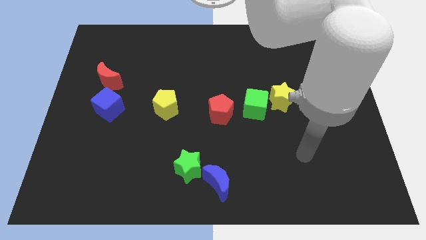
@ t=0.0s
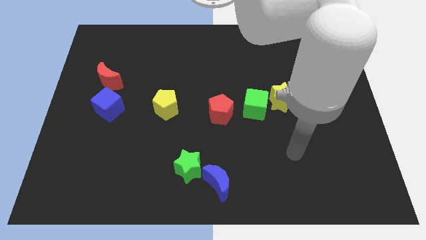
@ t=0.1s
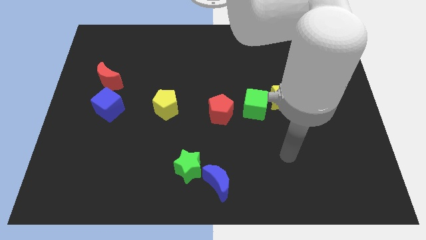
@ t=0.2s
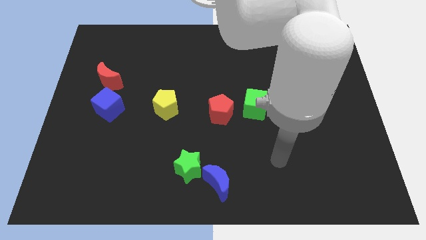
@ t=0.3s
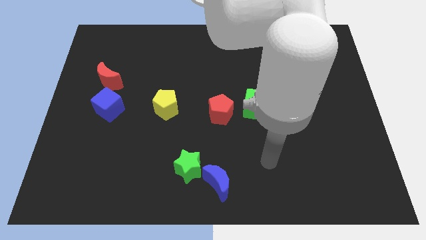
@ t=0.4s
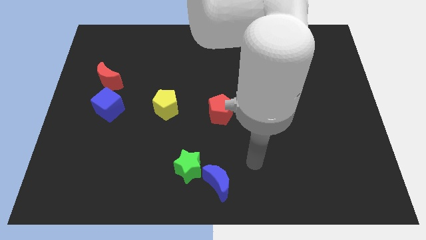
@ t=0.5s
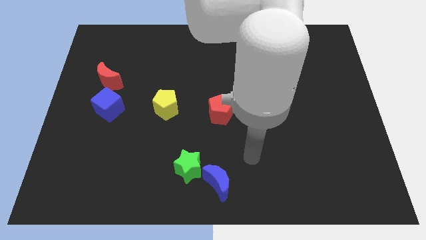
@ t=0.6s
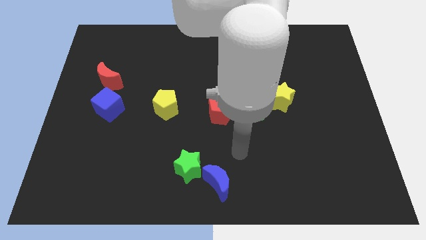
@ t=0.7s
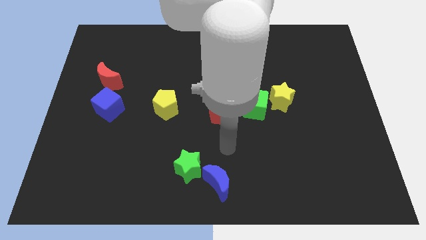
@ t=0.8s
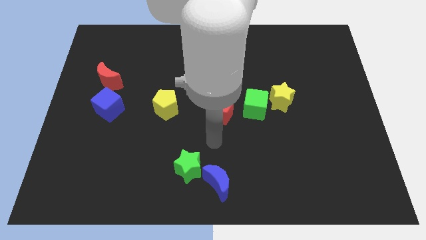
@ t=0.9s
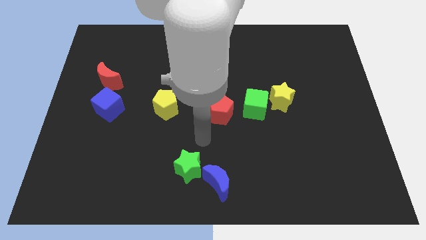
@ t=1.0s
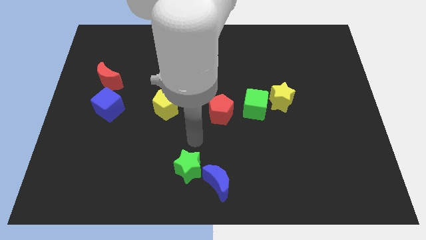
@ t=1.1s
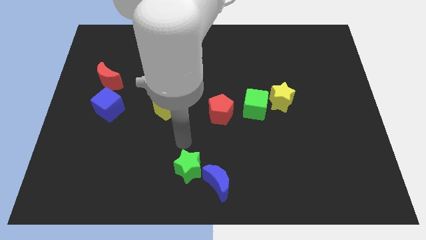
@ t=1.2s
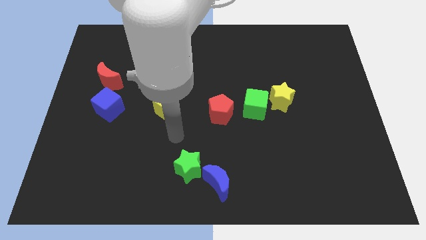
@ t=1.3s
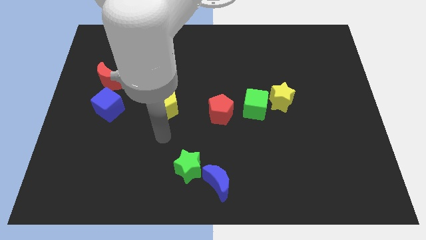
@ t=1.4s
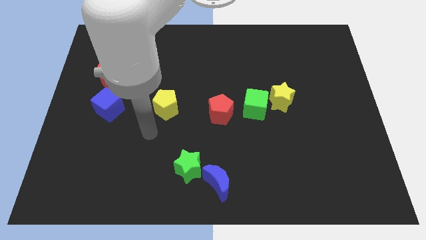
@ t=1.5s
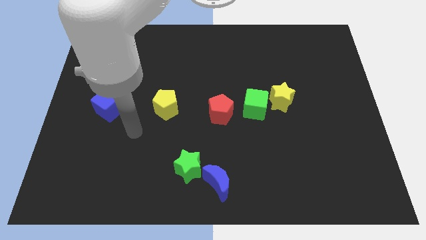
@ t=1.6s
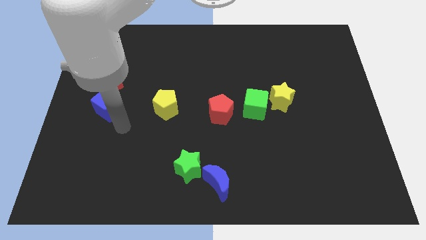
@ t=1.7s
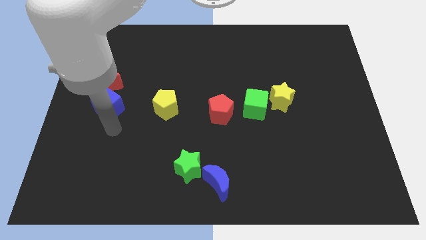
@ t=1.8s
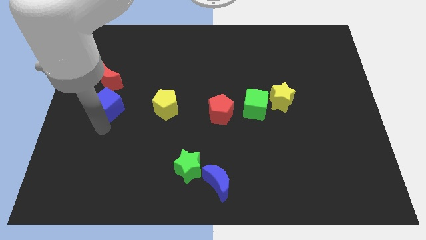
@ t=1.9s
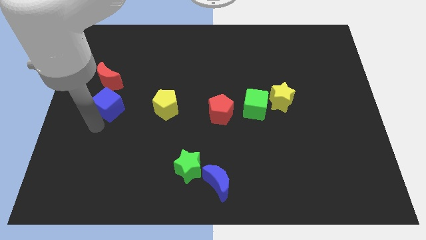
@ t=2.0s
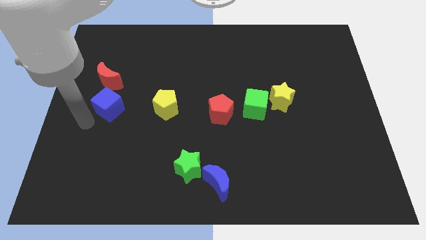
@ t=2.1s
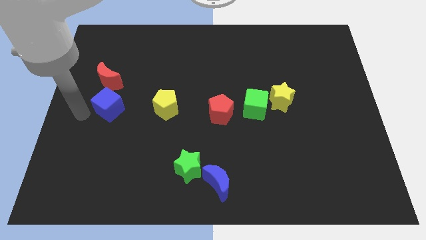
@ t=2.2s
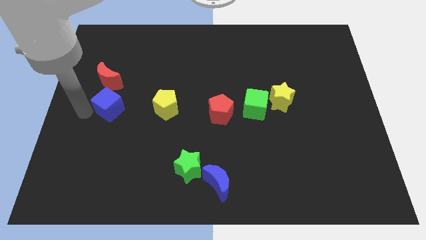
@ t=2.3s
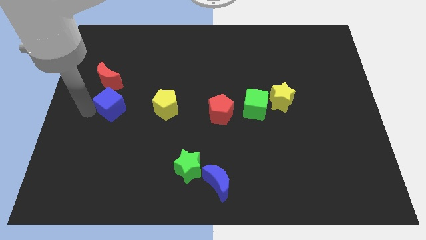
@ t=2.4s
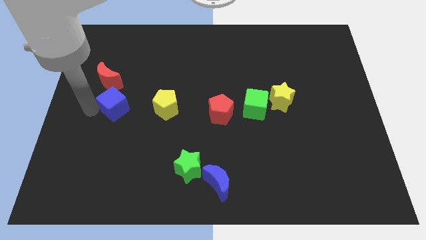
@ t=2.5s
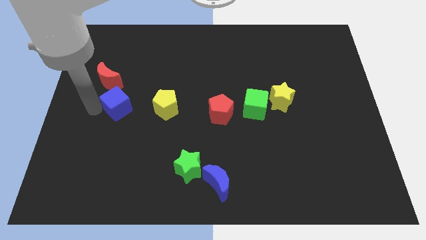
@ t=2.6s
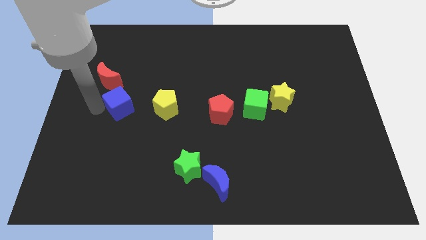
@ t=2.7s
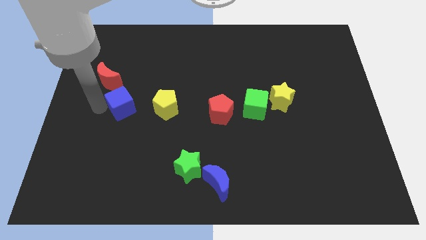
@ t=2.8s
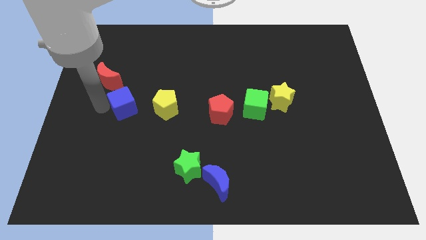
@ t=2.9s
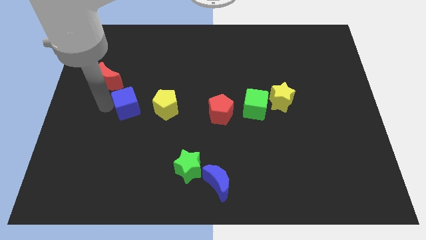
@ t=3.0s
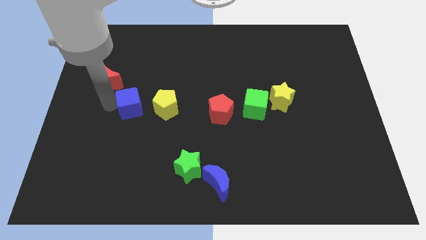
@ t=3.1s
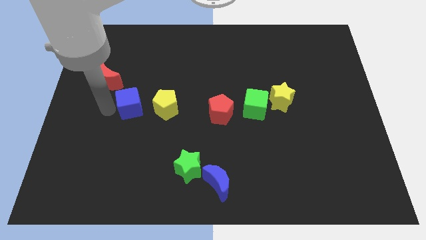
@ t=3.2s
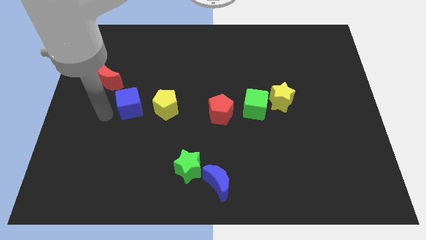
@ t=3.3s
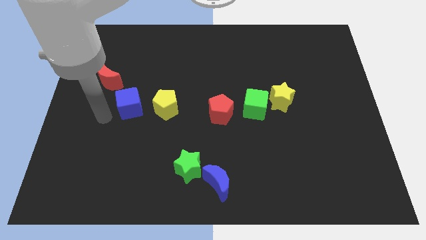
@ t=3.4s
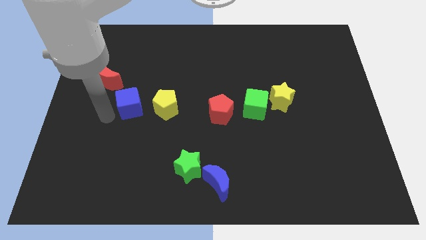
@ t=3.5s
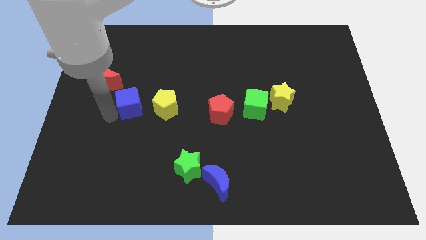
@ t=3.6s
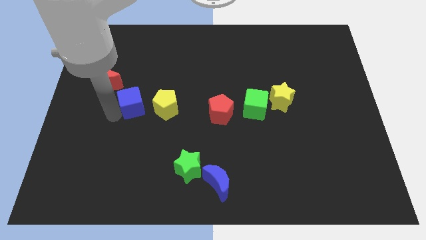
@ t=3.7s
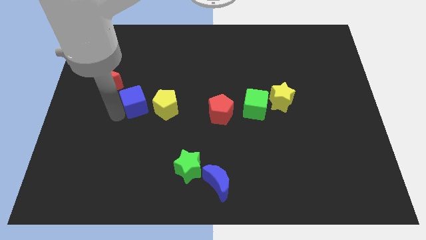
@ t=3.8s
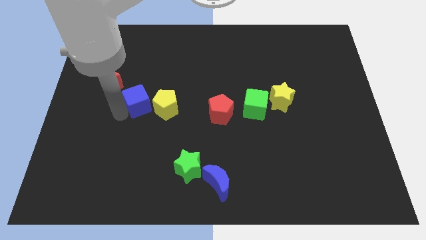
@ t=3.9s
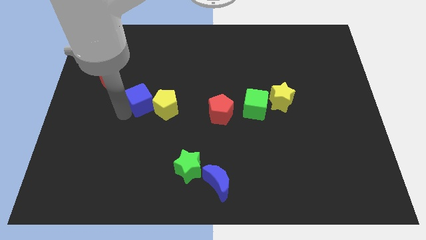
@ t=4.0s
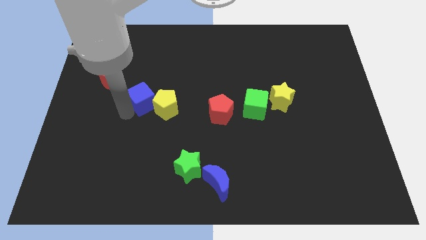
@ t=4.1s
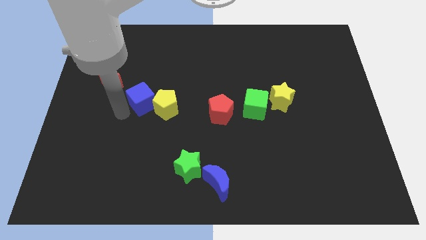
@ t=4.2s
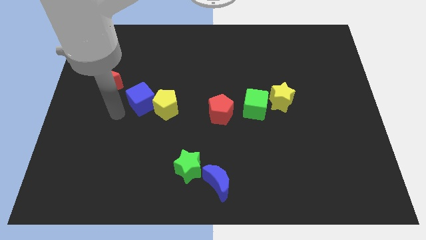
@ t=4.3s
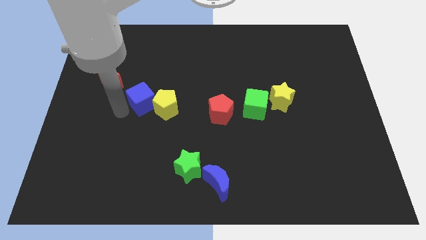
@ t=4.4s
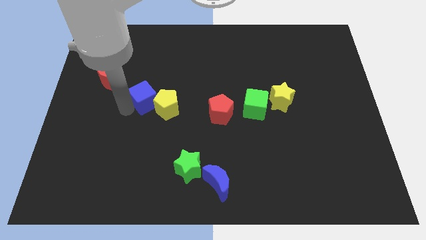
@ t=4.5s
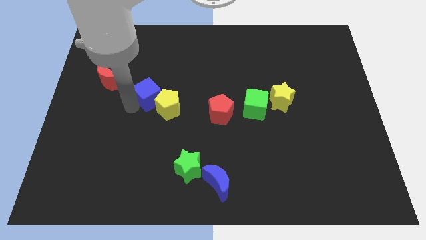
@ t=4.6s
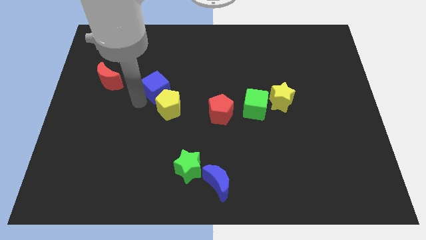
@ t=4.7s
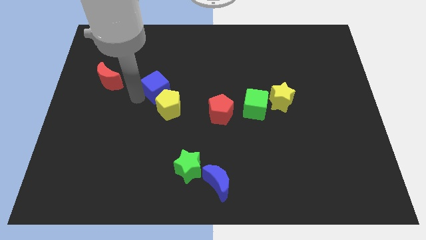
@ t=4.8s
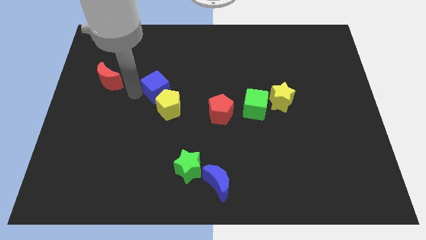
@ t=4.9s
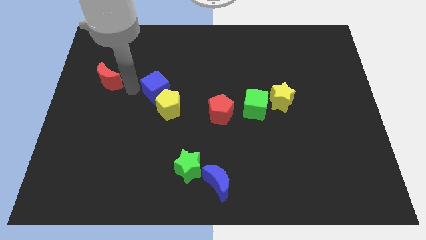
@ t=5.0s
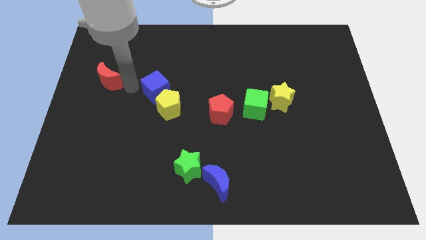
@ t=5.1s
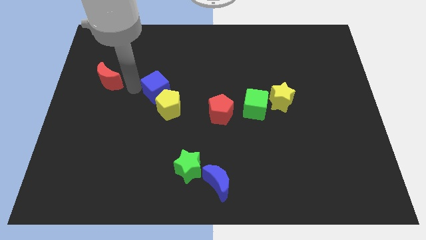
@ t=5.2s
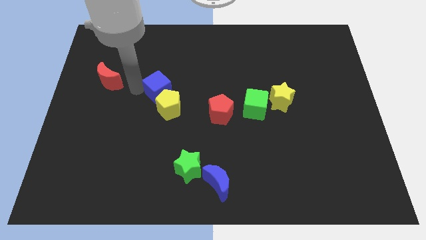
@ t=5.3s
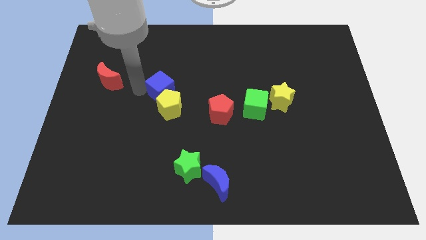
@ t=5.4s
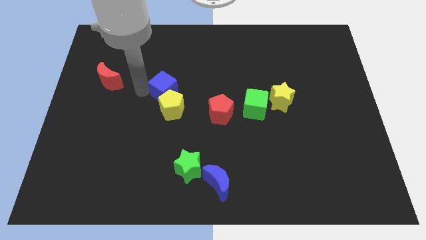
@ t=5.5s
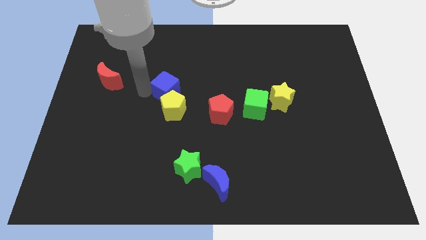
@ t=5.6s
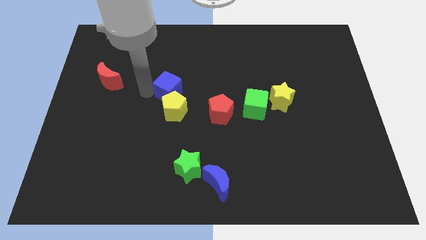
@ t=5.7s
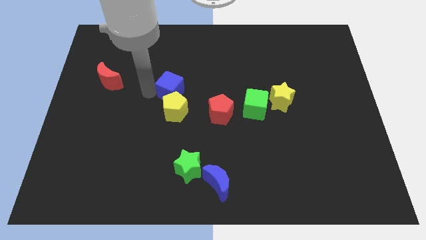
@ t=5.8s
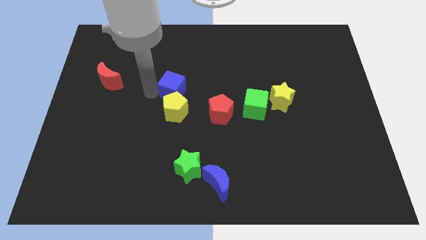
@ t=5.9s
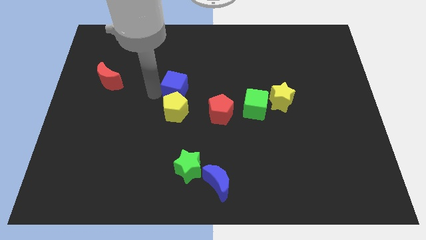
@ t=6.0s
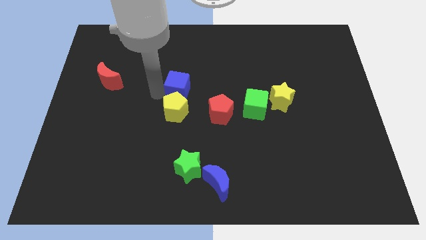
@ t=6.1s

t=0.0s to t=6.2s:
move the blue cube to the top left side of the red pentagon

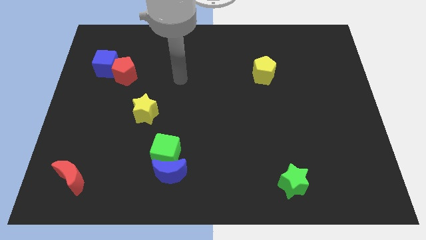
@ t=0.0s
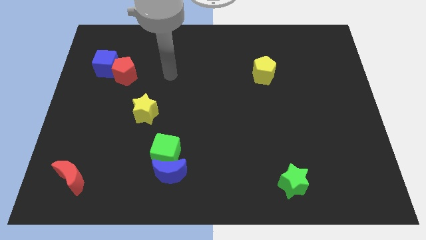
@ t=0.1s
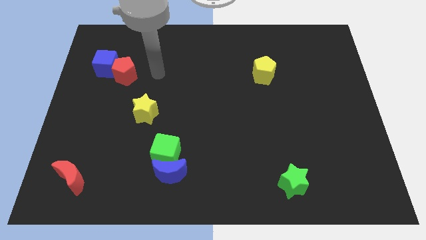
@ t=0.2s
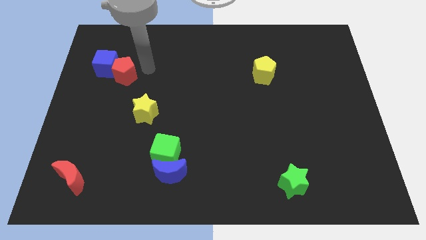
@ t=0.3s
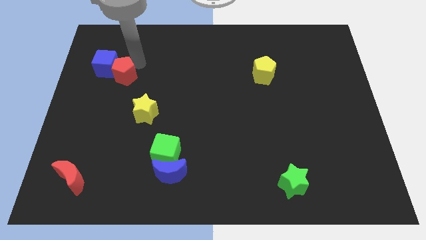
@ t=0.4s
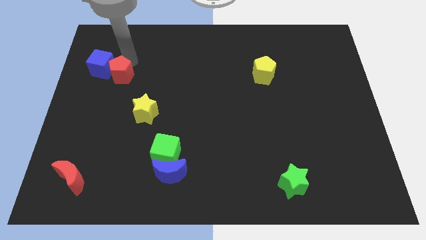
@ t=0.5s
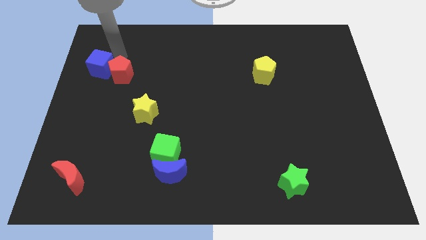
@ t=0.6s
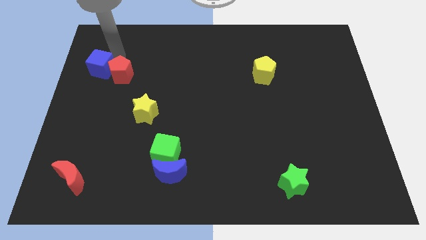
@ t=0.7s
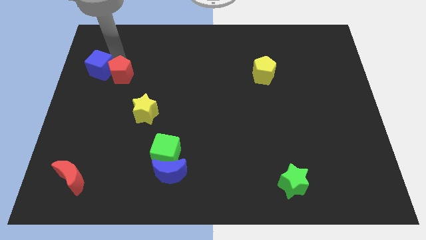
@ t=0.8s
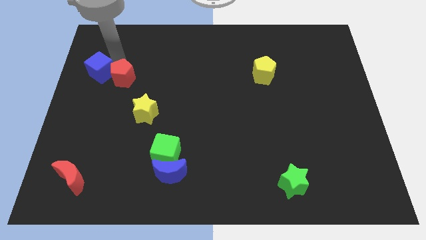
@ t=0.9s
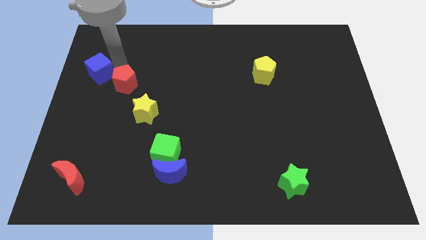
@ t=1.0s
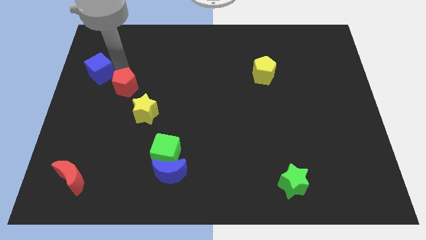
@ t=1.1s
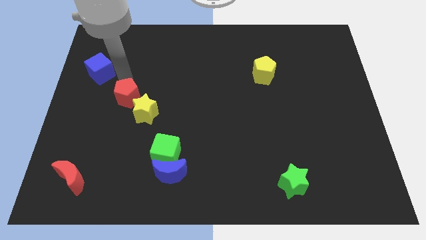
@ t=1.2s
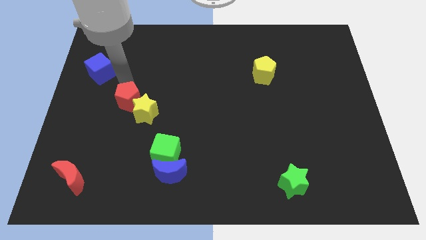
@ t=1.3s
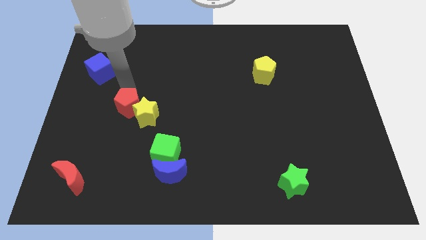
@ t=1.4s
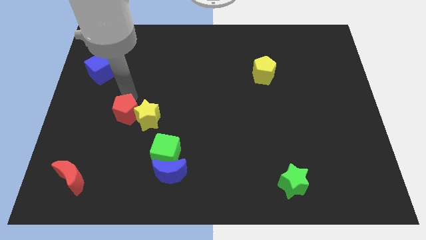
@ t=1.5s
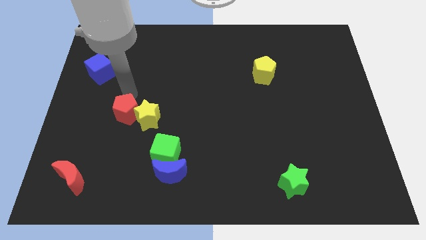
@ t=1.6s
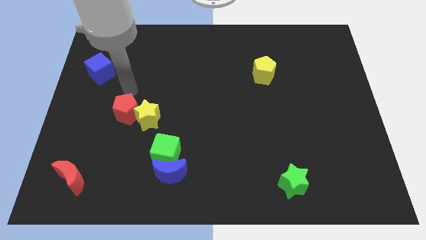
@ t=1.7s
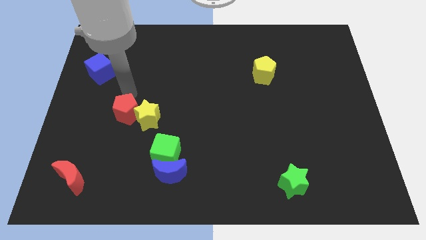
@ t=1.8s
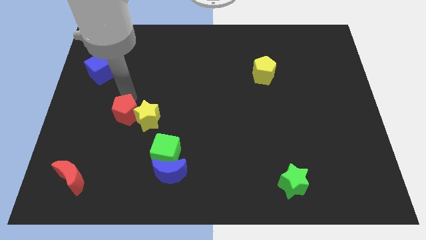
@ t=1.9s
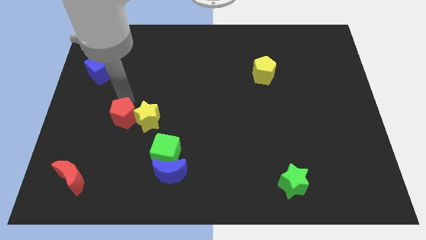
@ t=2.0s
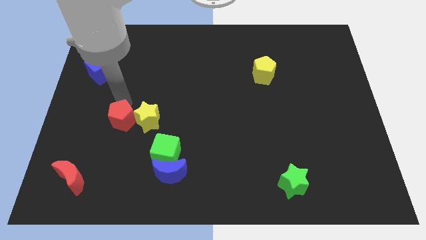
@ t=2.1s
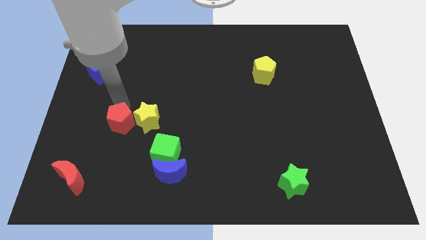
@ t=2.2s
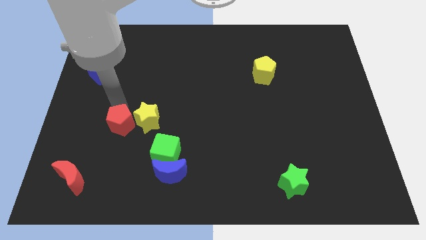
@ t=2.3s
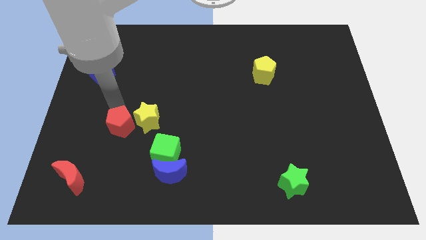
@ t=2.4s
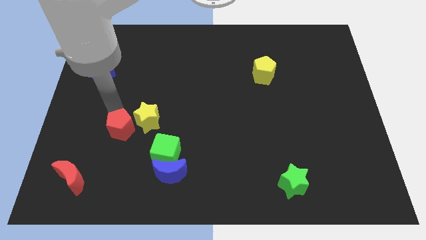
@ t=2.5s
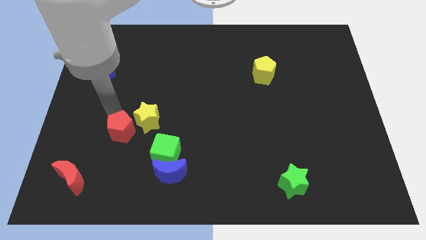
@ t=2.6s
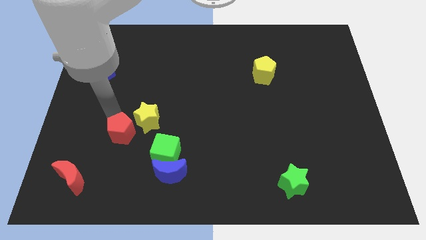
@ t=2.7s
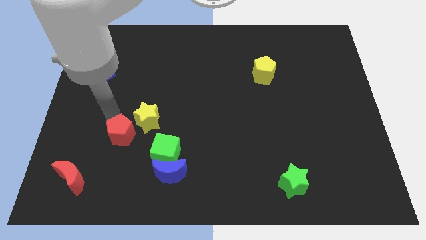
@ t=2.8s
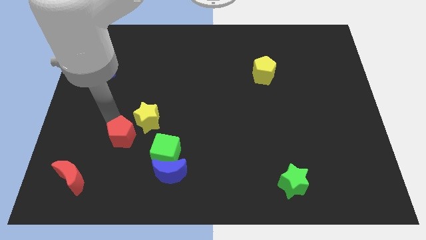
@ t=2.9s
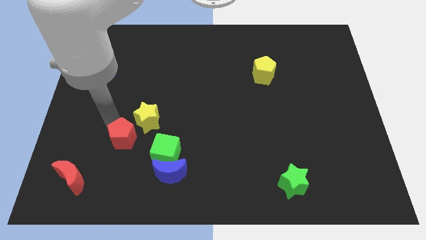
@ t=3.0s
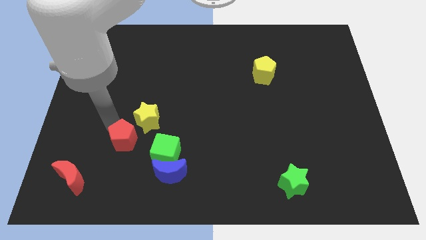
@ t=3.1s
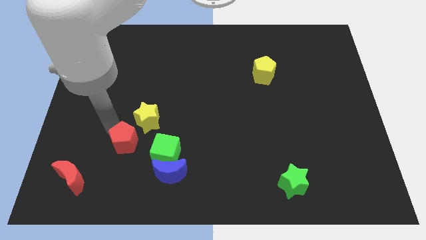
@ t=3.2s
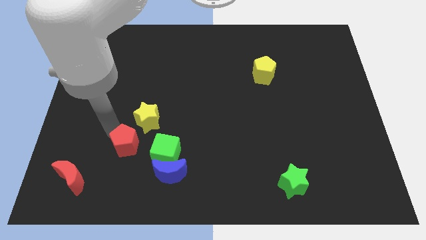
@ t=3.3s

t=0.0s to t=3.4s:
put the red pentagon diagonally up and to the left of the blue moon
